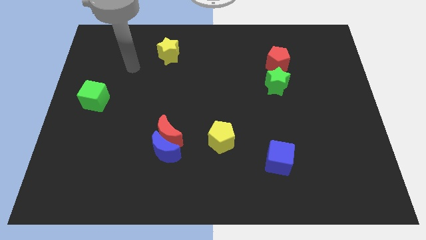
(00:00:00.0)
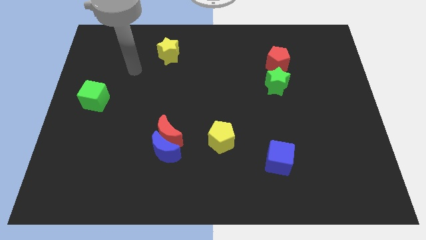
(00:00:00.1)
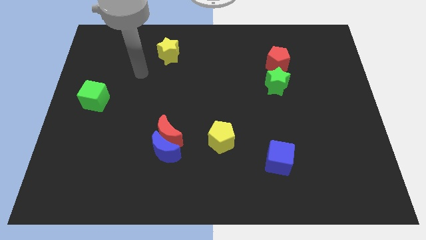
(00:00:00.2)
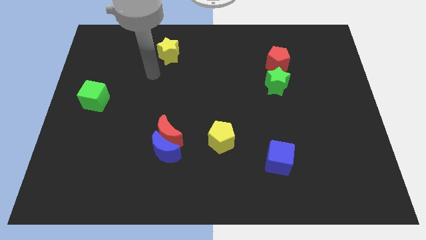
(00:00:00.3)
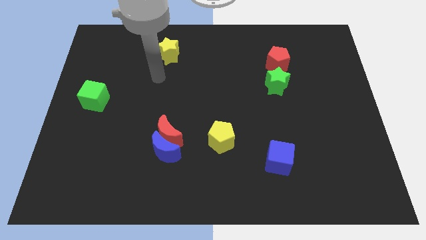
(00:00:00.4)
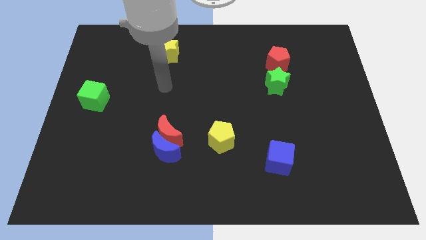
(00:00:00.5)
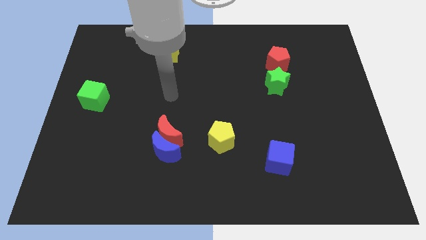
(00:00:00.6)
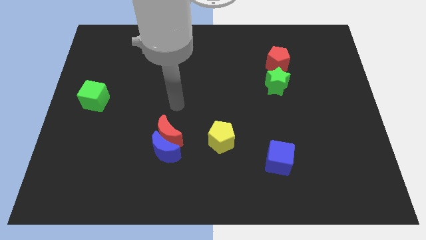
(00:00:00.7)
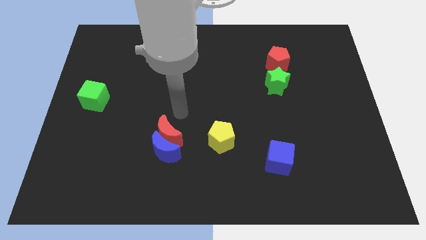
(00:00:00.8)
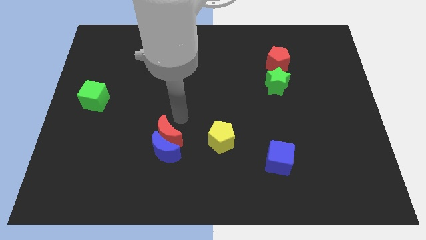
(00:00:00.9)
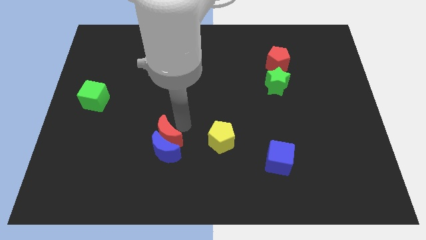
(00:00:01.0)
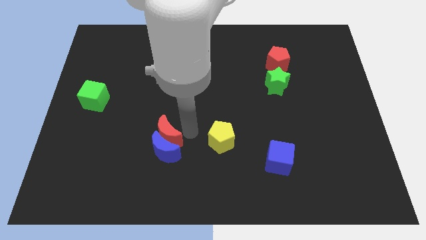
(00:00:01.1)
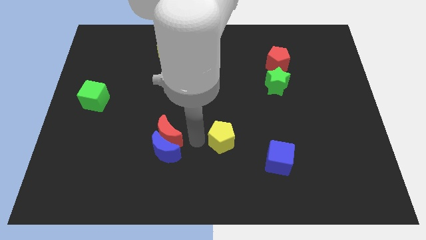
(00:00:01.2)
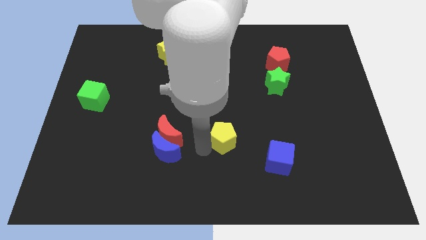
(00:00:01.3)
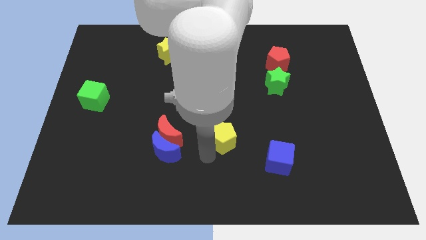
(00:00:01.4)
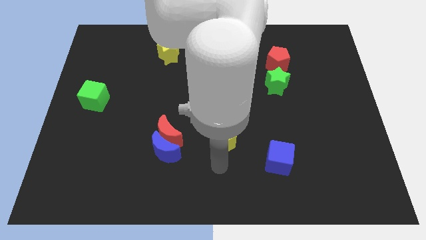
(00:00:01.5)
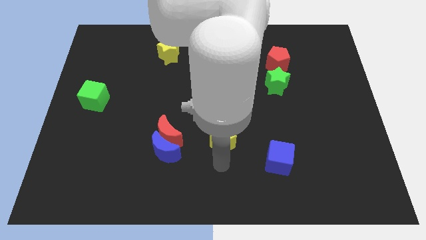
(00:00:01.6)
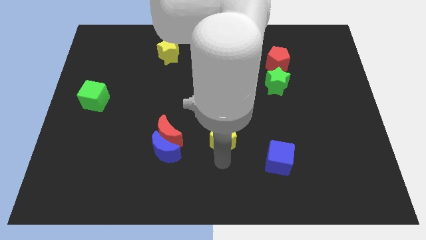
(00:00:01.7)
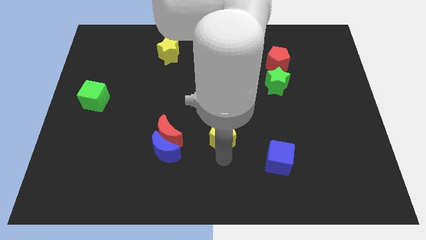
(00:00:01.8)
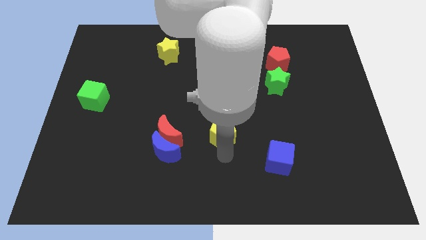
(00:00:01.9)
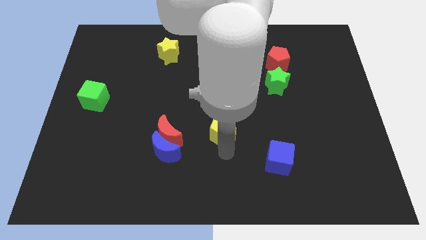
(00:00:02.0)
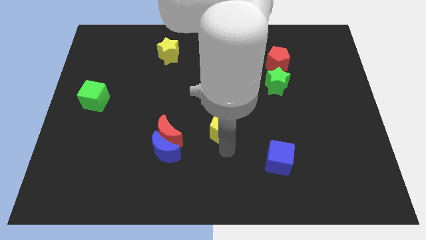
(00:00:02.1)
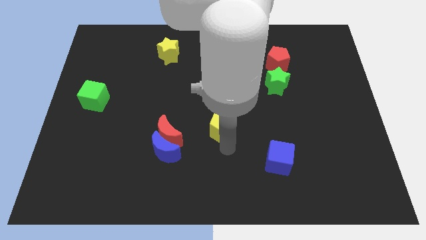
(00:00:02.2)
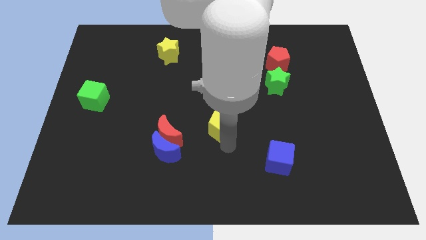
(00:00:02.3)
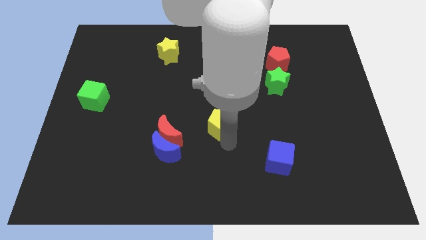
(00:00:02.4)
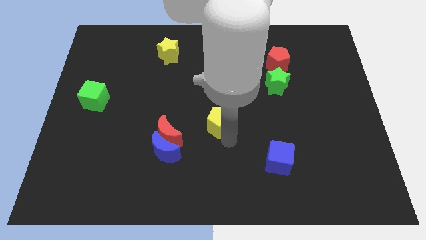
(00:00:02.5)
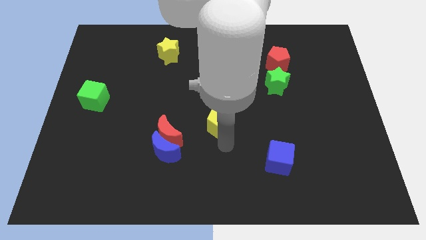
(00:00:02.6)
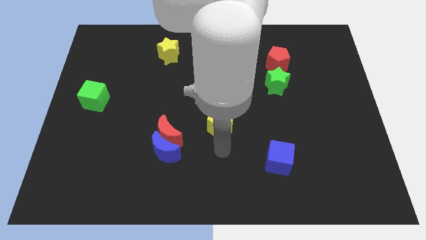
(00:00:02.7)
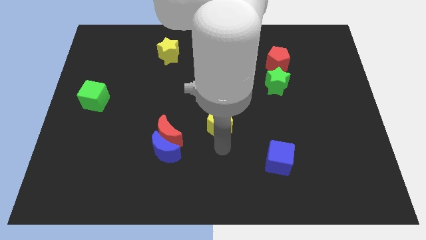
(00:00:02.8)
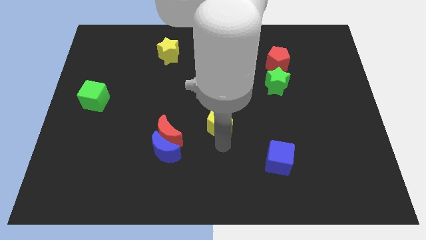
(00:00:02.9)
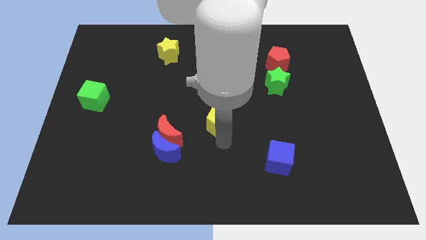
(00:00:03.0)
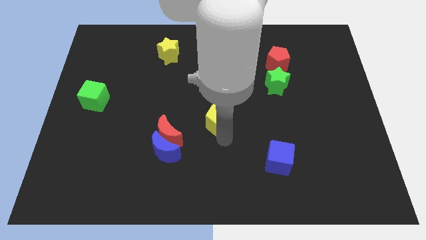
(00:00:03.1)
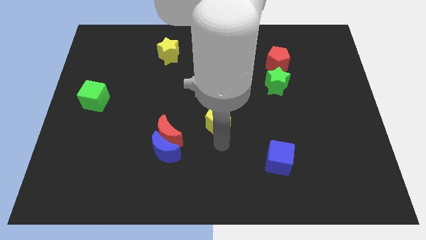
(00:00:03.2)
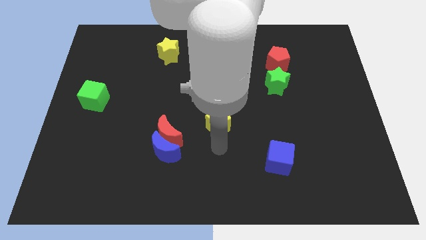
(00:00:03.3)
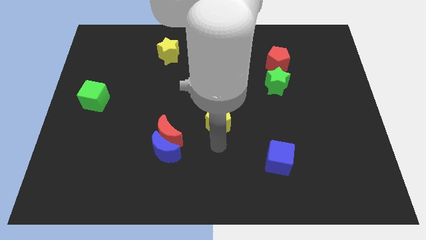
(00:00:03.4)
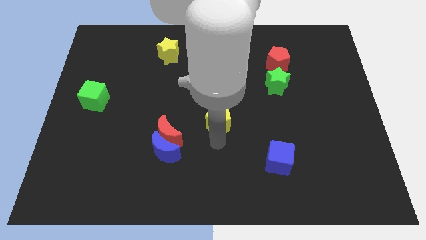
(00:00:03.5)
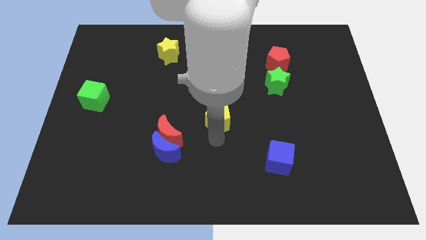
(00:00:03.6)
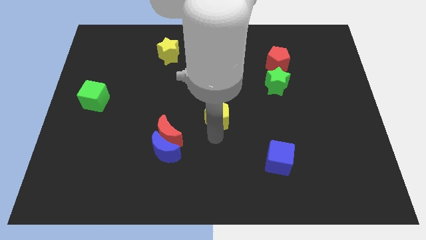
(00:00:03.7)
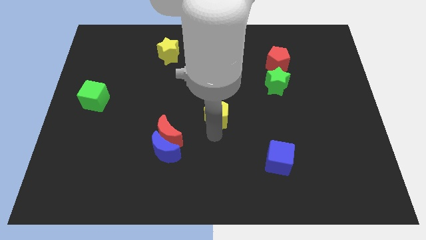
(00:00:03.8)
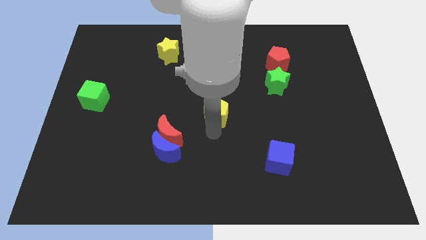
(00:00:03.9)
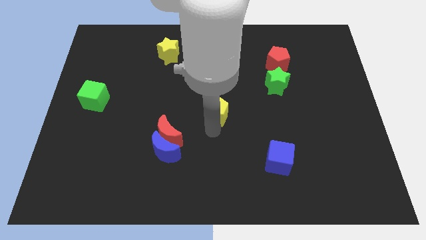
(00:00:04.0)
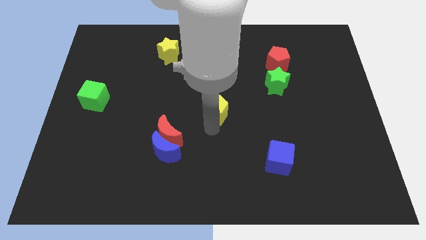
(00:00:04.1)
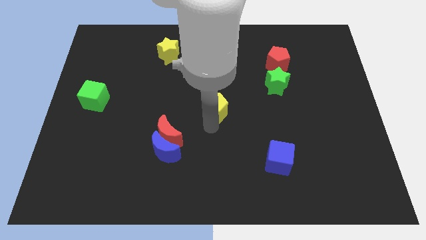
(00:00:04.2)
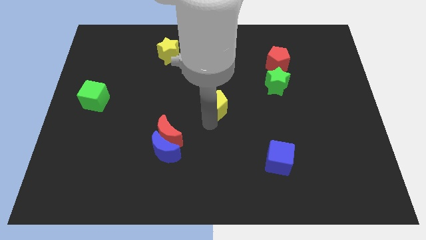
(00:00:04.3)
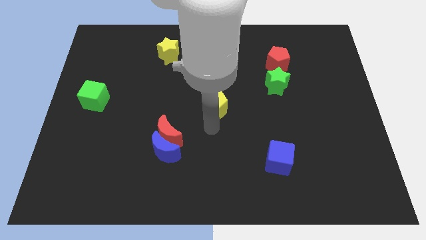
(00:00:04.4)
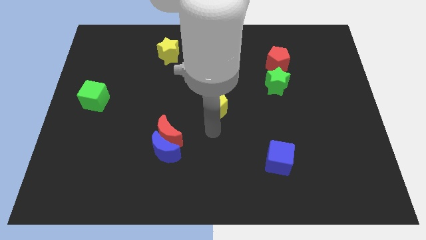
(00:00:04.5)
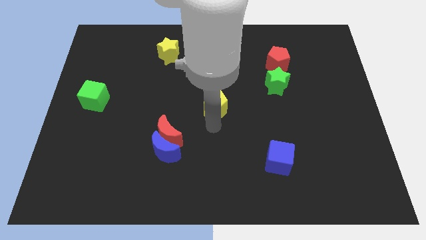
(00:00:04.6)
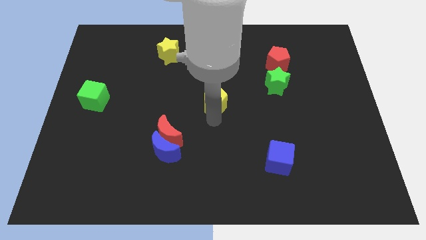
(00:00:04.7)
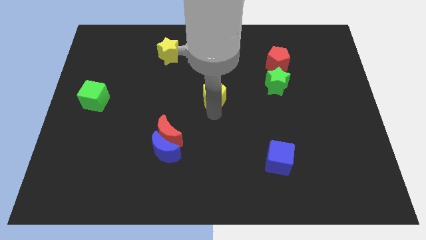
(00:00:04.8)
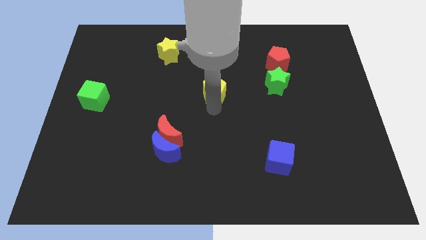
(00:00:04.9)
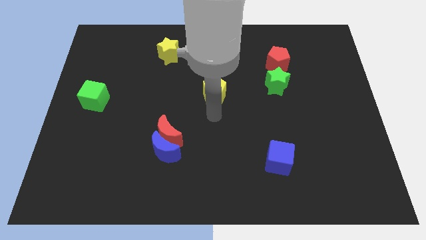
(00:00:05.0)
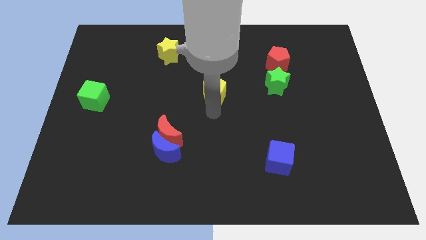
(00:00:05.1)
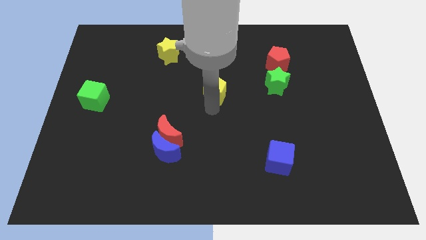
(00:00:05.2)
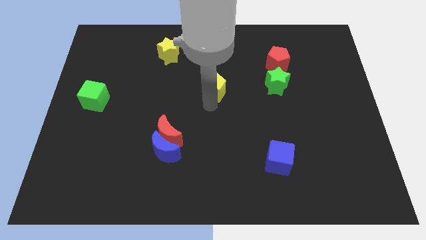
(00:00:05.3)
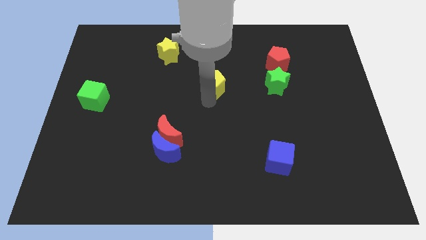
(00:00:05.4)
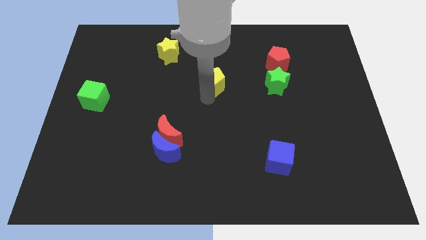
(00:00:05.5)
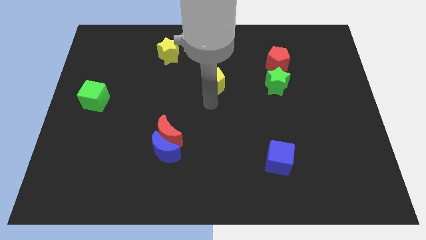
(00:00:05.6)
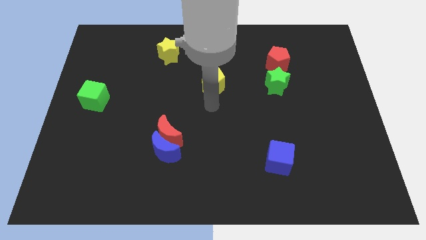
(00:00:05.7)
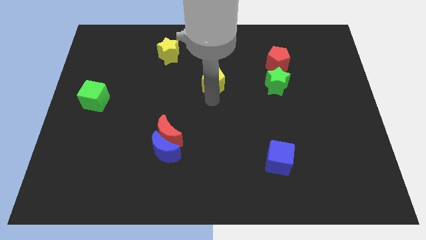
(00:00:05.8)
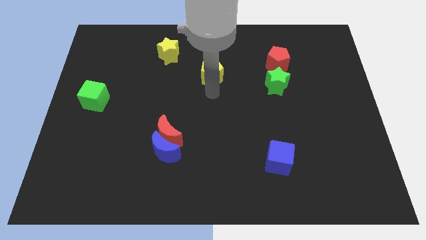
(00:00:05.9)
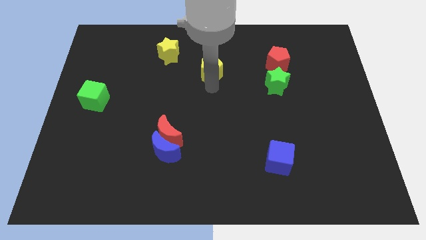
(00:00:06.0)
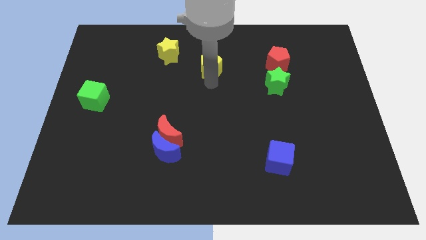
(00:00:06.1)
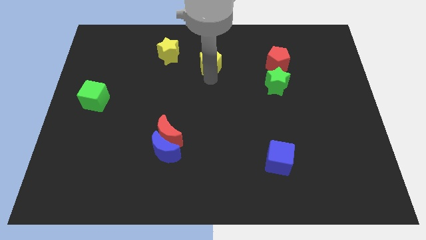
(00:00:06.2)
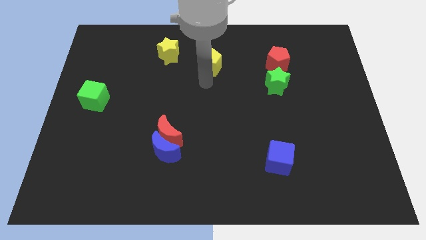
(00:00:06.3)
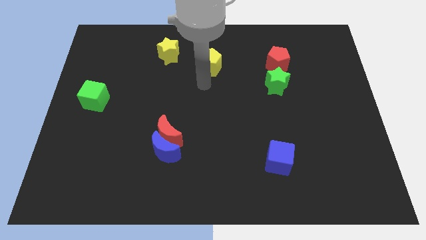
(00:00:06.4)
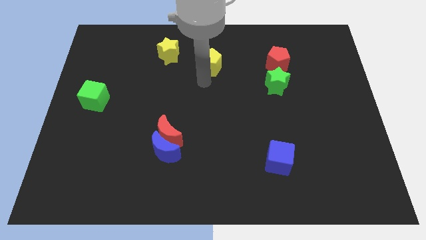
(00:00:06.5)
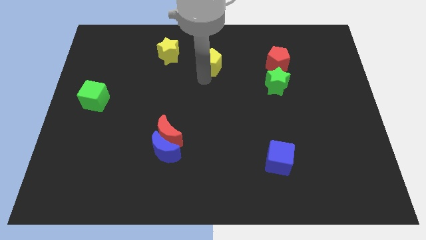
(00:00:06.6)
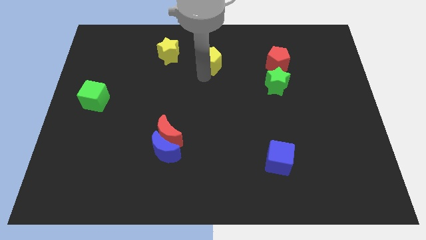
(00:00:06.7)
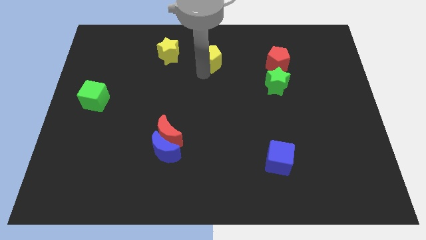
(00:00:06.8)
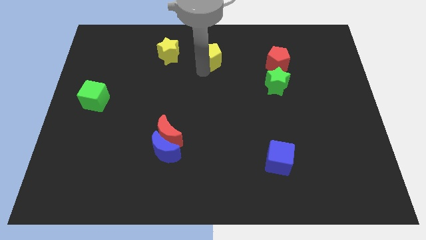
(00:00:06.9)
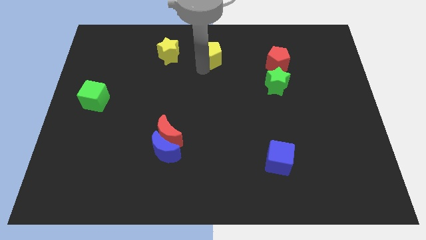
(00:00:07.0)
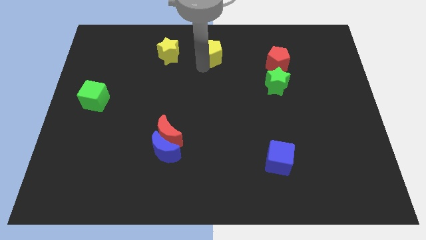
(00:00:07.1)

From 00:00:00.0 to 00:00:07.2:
put the yellow pentagon to the towards your base
